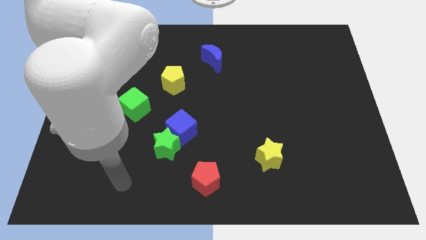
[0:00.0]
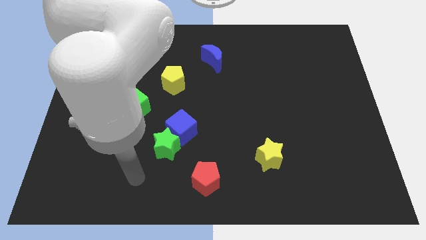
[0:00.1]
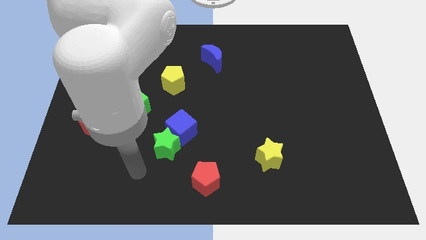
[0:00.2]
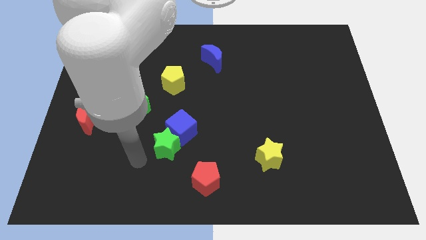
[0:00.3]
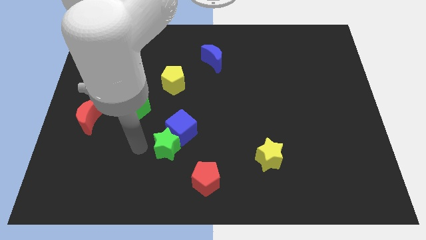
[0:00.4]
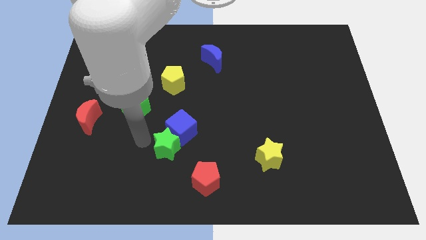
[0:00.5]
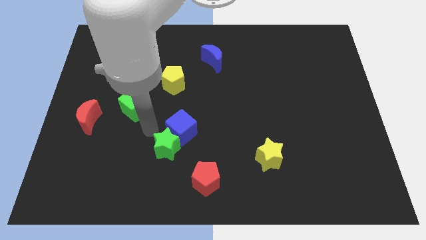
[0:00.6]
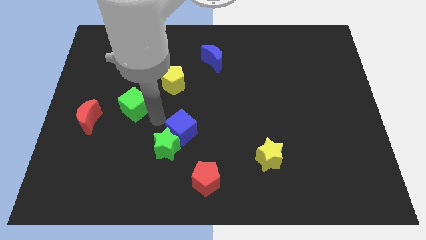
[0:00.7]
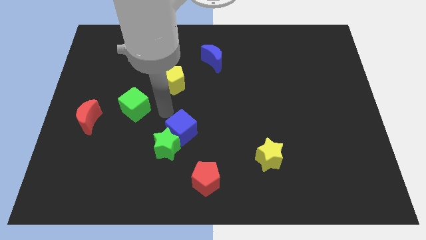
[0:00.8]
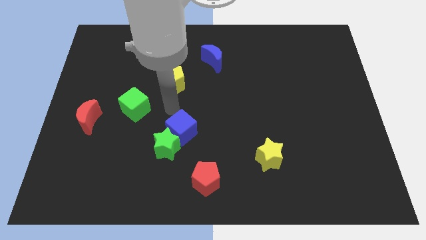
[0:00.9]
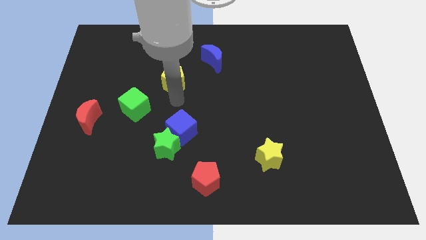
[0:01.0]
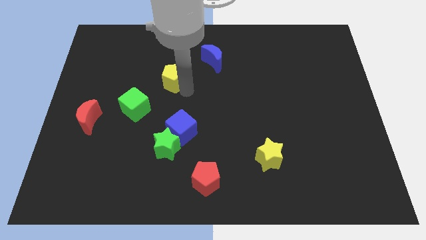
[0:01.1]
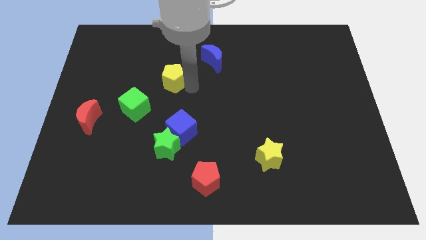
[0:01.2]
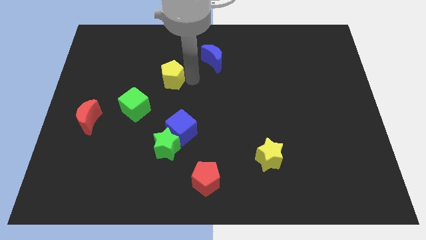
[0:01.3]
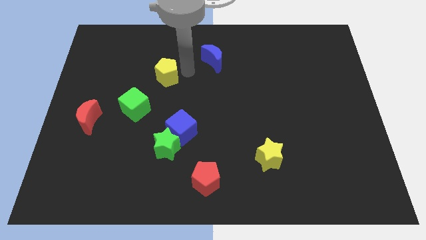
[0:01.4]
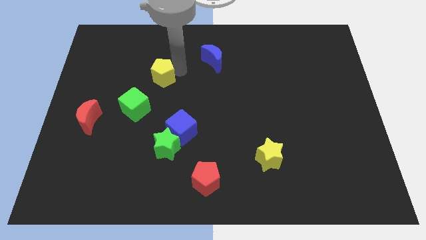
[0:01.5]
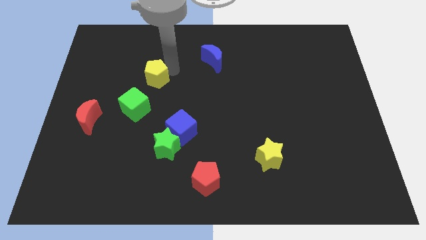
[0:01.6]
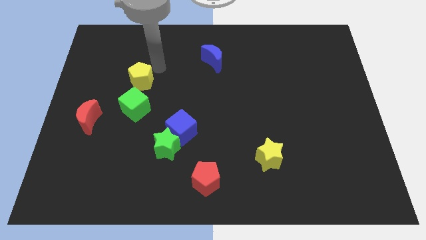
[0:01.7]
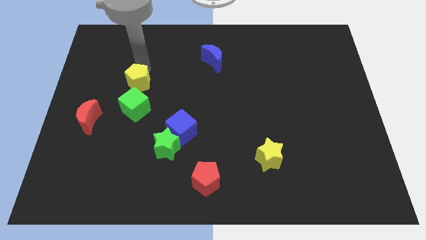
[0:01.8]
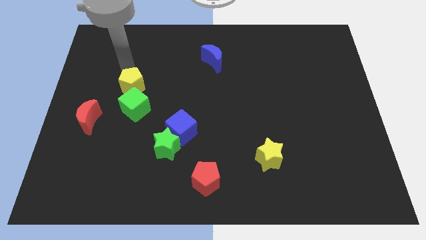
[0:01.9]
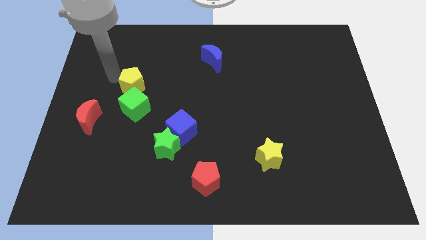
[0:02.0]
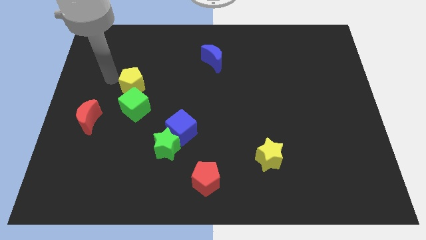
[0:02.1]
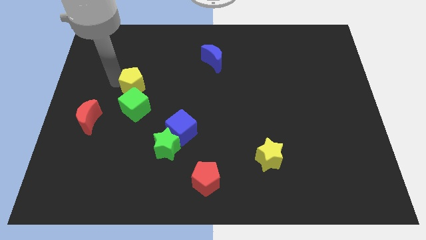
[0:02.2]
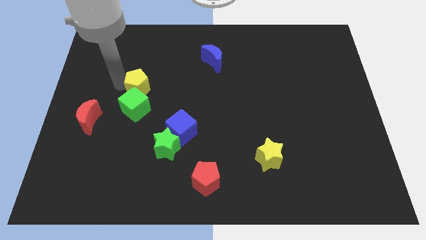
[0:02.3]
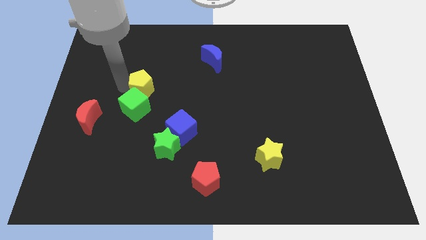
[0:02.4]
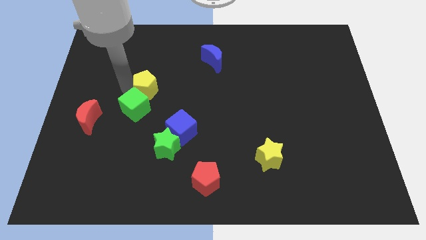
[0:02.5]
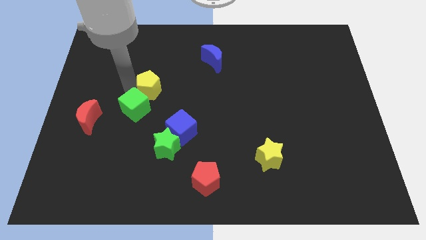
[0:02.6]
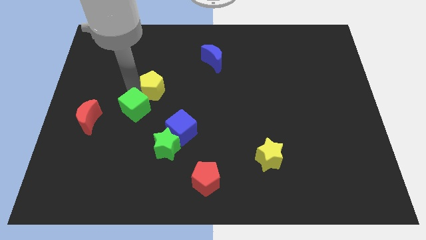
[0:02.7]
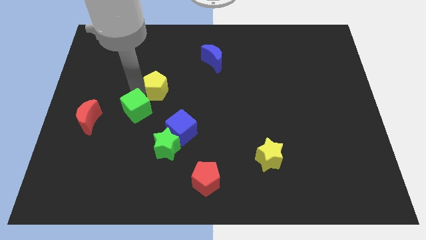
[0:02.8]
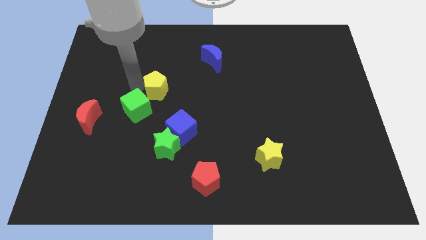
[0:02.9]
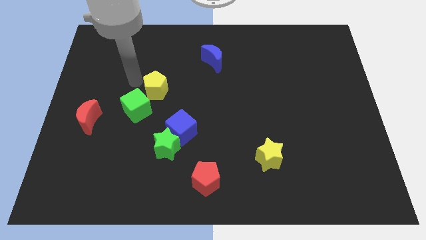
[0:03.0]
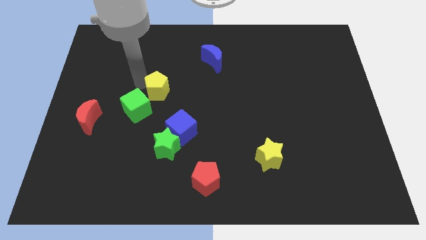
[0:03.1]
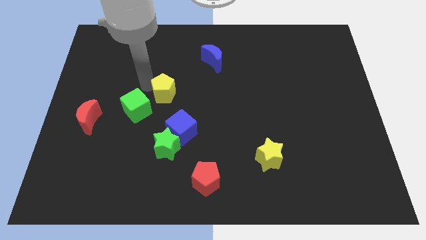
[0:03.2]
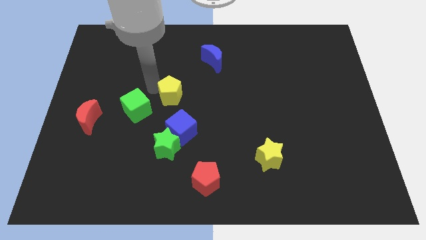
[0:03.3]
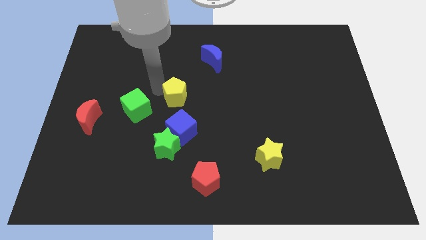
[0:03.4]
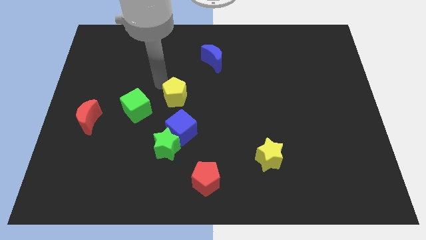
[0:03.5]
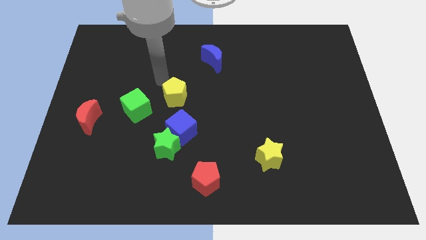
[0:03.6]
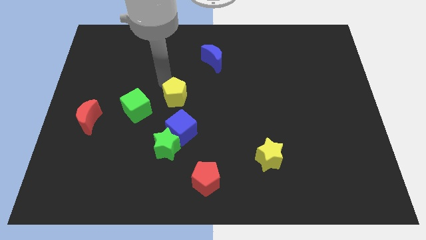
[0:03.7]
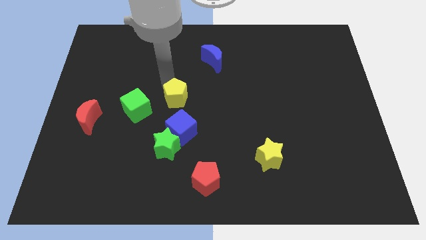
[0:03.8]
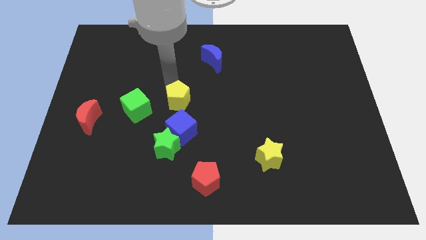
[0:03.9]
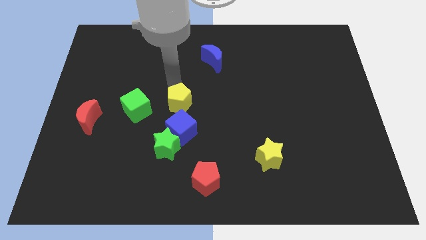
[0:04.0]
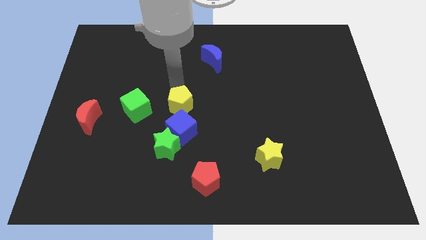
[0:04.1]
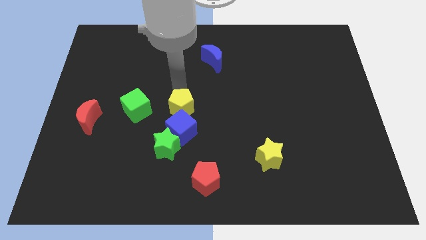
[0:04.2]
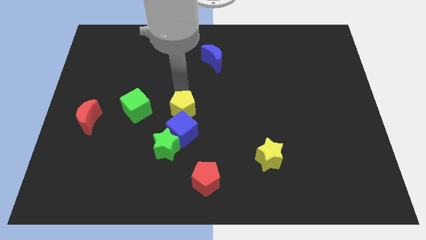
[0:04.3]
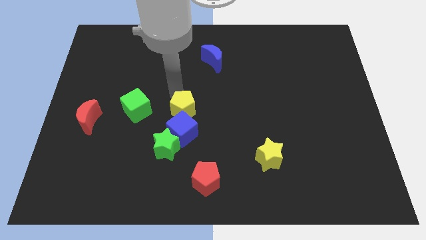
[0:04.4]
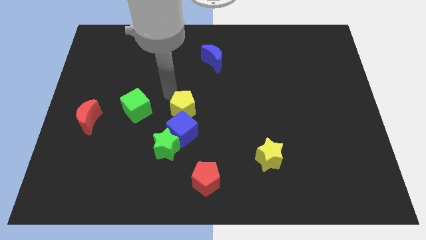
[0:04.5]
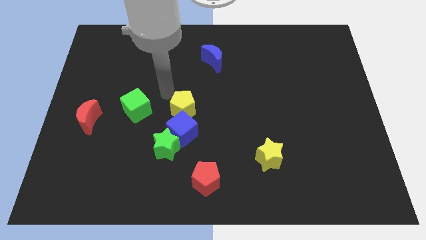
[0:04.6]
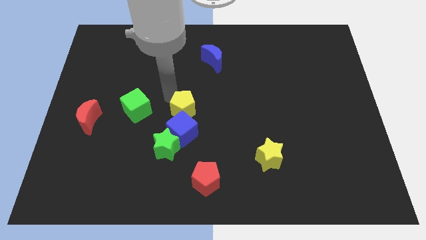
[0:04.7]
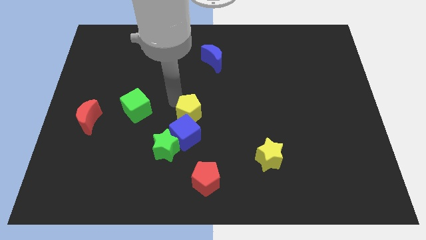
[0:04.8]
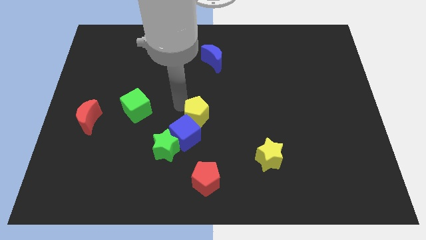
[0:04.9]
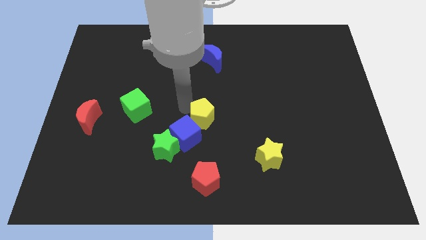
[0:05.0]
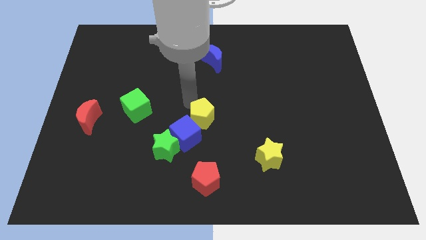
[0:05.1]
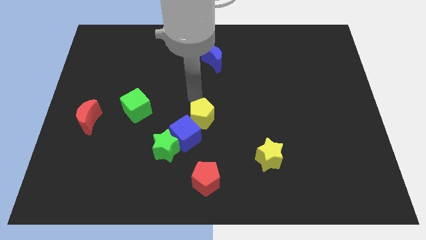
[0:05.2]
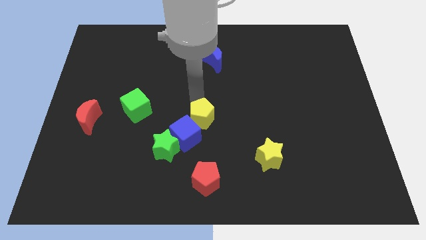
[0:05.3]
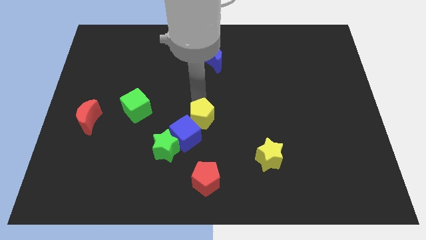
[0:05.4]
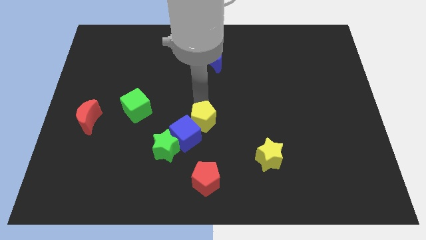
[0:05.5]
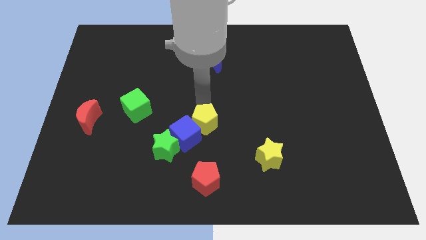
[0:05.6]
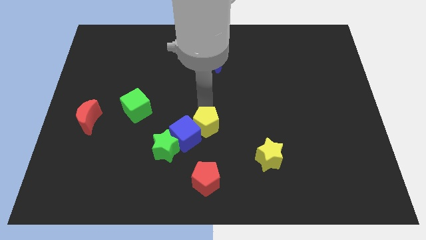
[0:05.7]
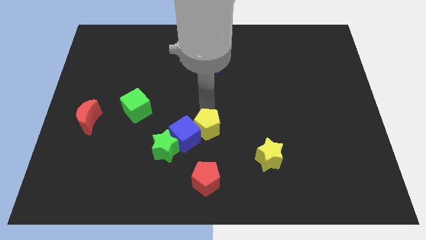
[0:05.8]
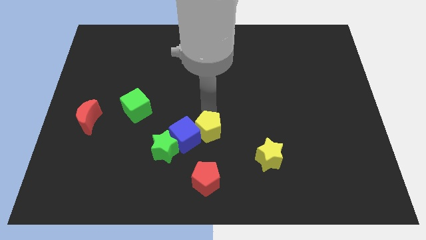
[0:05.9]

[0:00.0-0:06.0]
put the yellow pentagon to the right of the green star

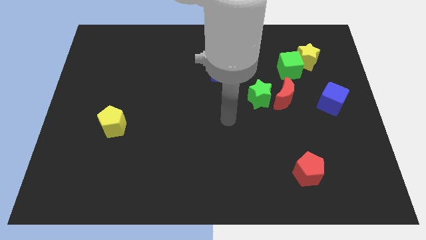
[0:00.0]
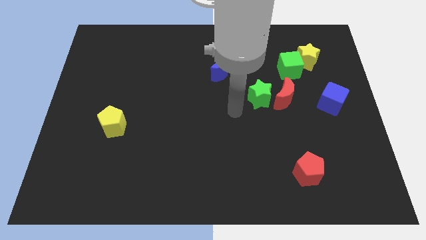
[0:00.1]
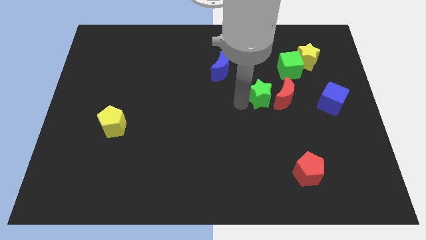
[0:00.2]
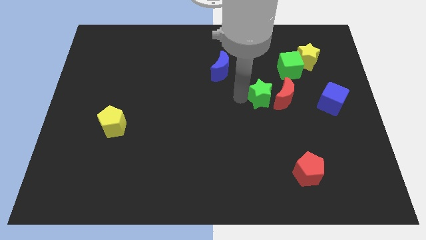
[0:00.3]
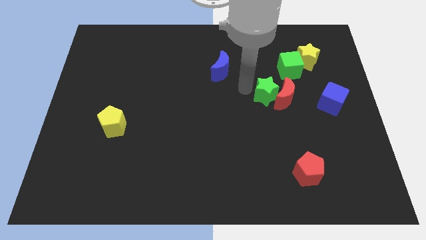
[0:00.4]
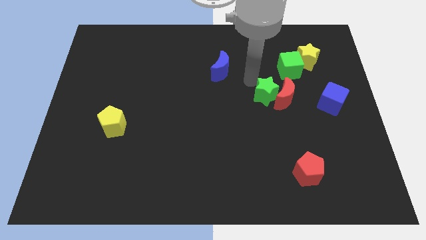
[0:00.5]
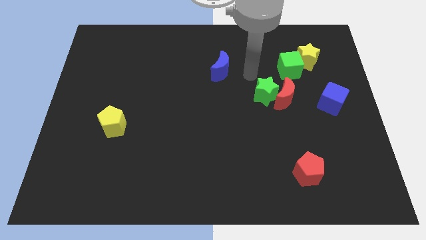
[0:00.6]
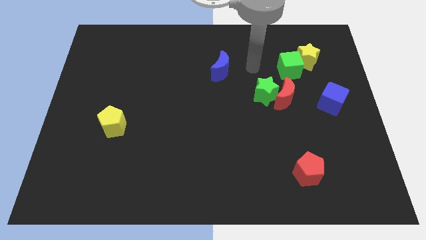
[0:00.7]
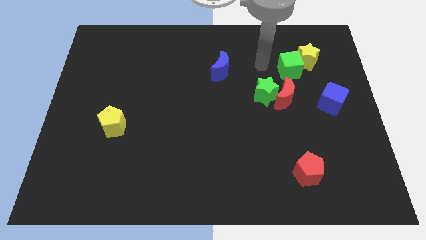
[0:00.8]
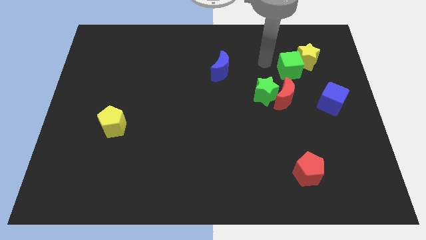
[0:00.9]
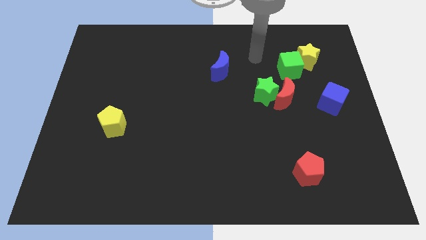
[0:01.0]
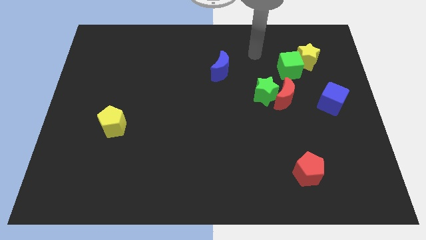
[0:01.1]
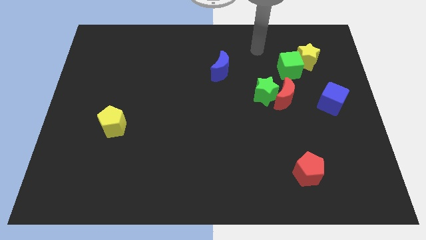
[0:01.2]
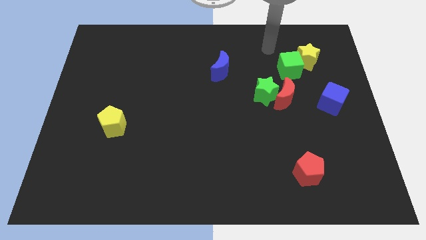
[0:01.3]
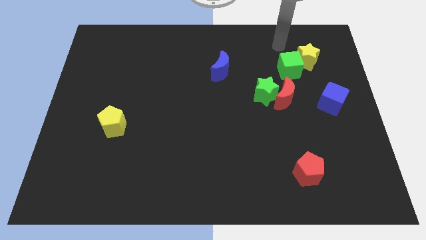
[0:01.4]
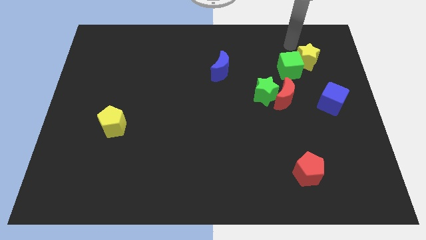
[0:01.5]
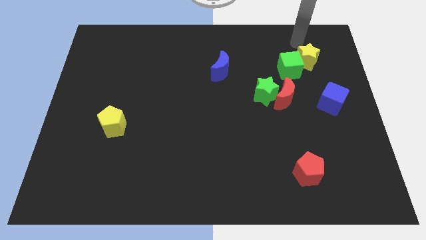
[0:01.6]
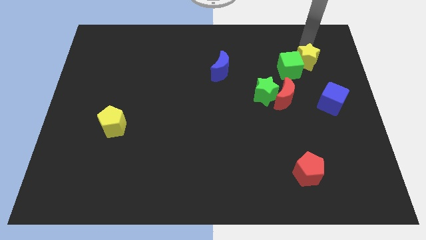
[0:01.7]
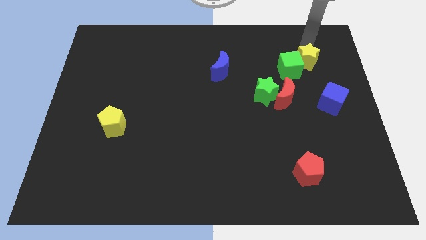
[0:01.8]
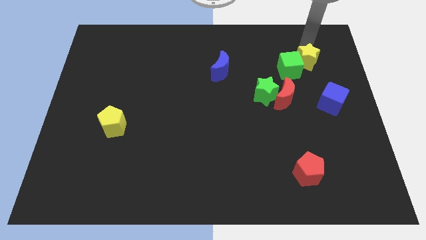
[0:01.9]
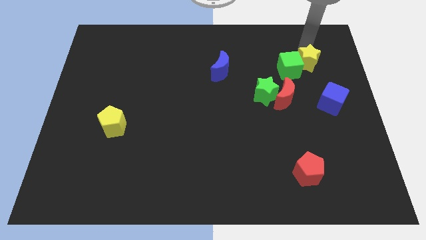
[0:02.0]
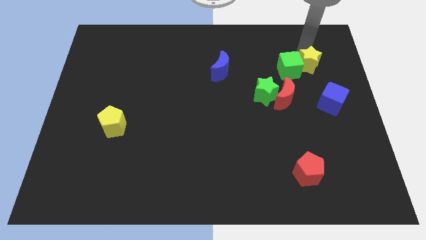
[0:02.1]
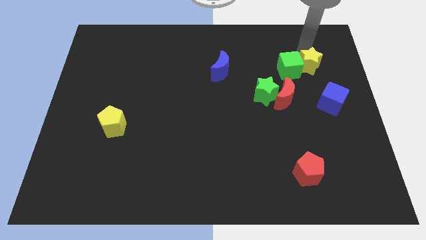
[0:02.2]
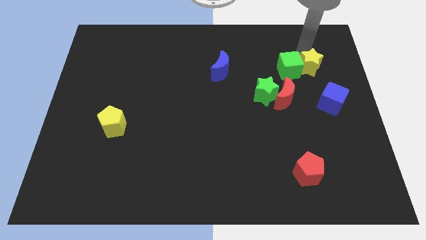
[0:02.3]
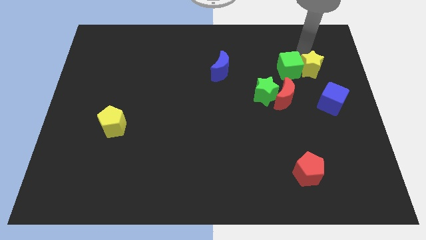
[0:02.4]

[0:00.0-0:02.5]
move the yellow star to the top right side of the red moon
